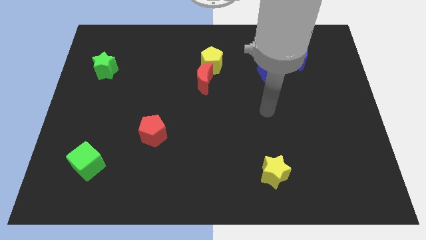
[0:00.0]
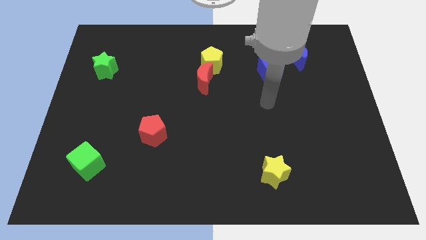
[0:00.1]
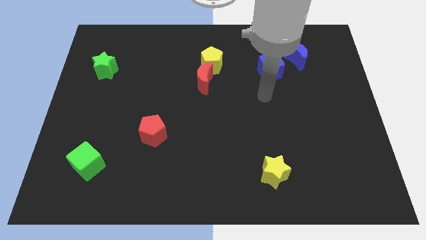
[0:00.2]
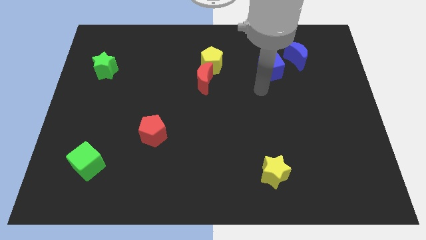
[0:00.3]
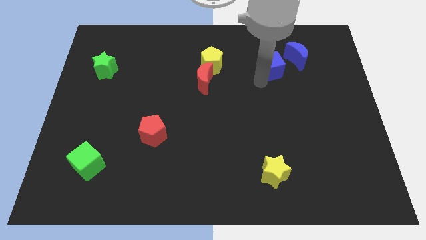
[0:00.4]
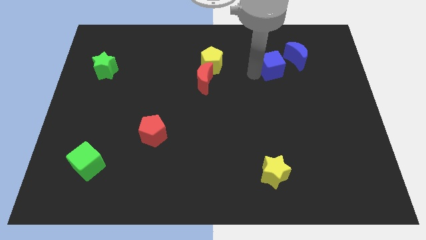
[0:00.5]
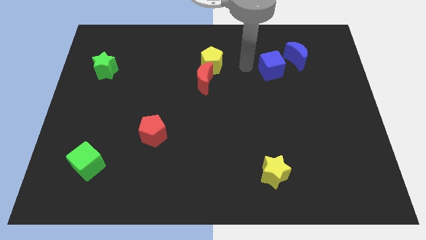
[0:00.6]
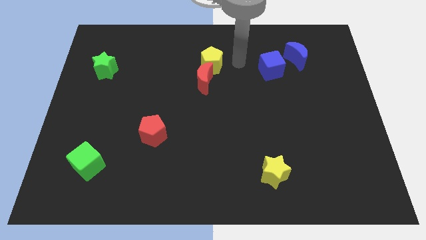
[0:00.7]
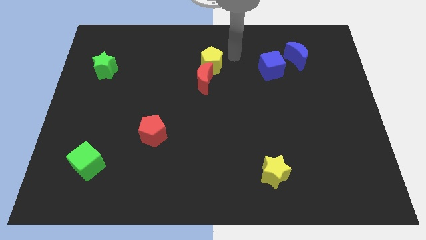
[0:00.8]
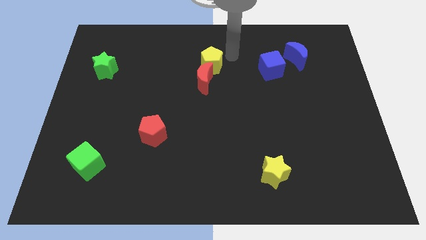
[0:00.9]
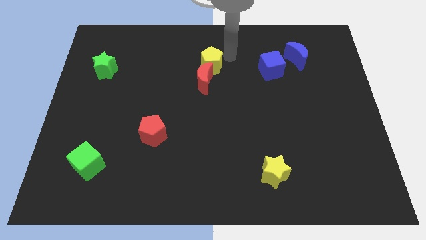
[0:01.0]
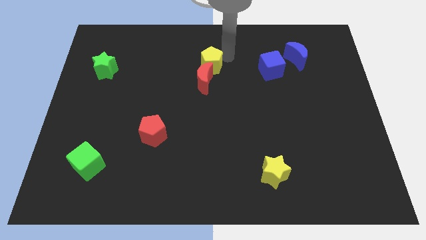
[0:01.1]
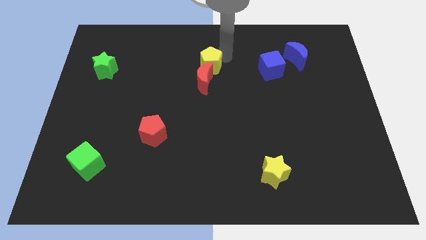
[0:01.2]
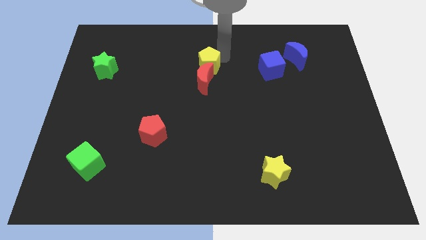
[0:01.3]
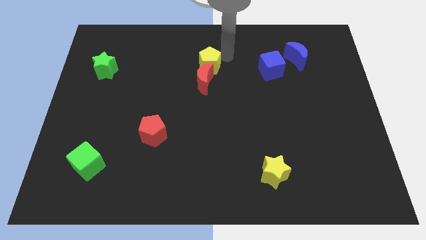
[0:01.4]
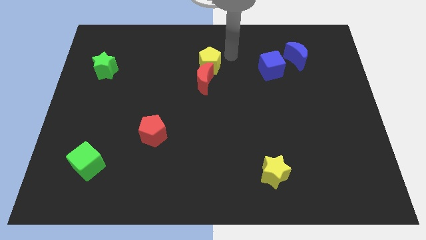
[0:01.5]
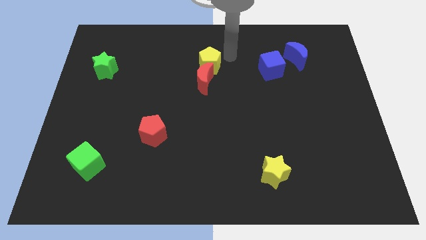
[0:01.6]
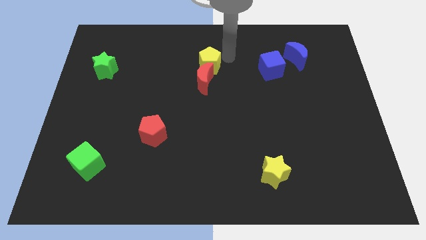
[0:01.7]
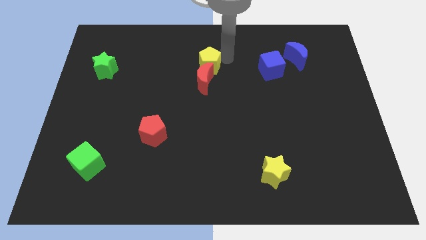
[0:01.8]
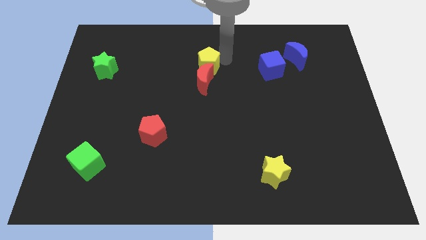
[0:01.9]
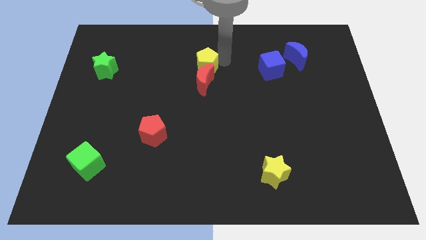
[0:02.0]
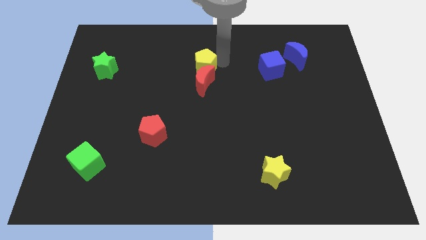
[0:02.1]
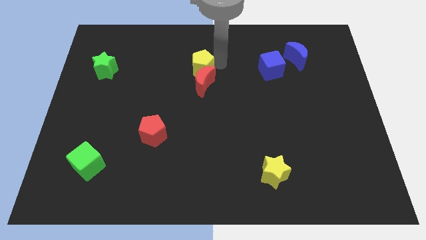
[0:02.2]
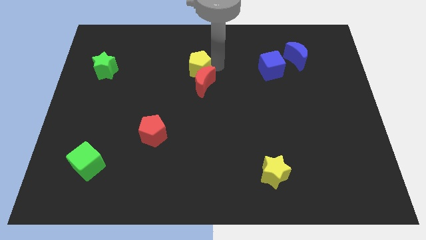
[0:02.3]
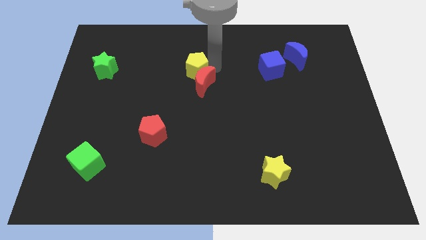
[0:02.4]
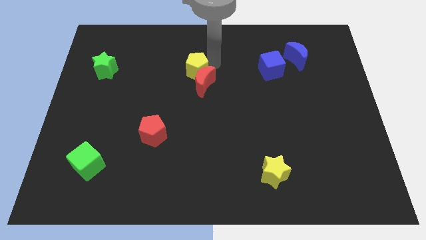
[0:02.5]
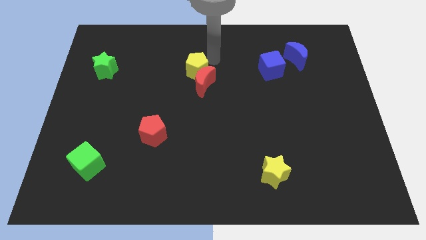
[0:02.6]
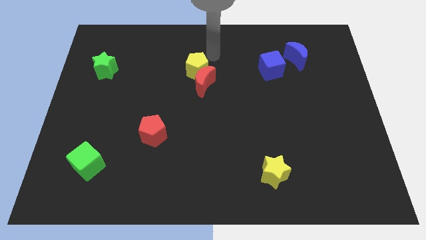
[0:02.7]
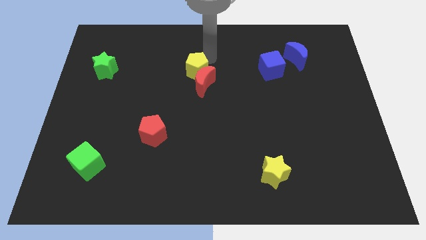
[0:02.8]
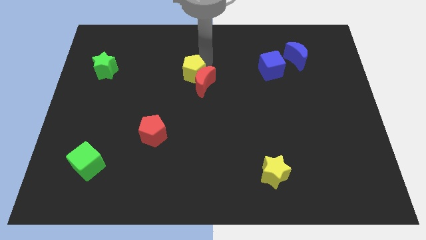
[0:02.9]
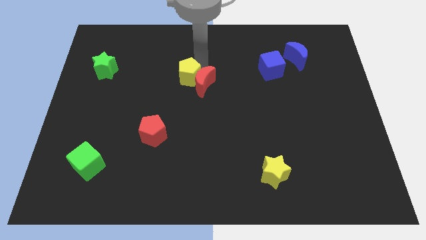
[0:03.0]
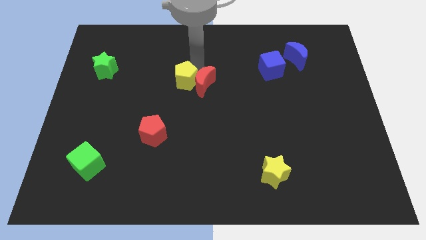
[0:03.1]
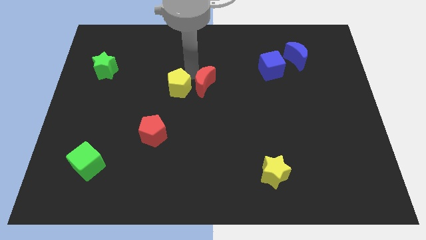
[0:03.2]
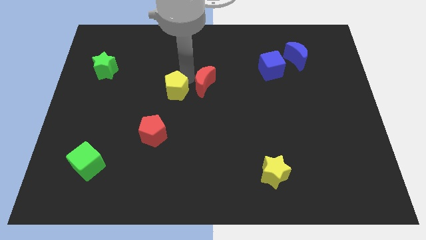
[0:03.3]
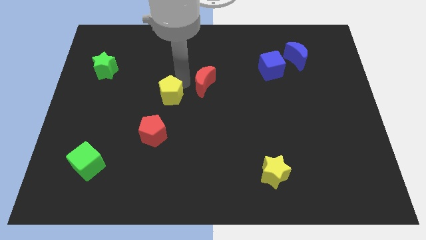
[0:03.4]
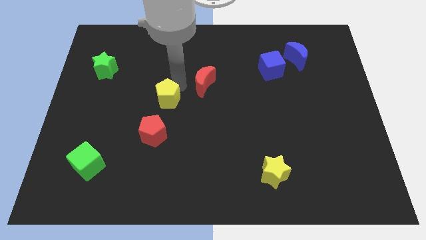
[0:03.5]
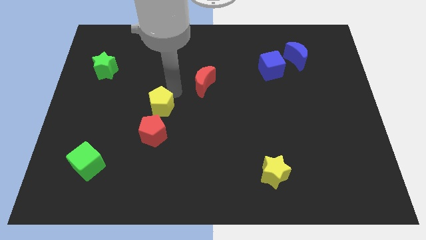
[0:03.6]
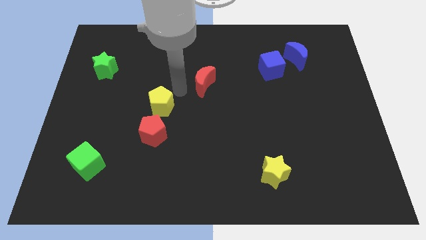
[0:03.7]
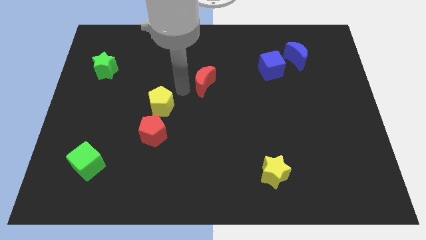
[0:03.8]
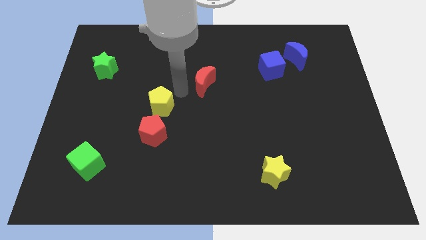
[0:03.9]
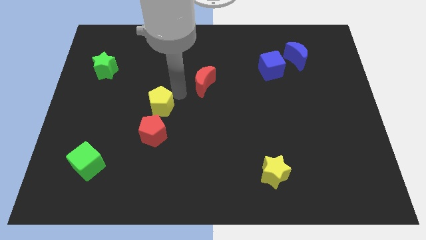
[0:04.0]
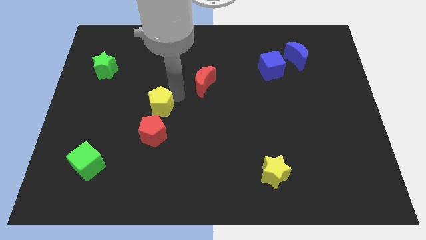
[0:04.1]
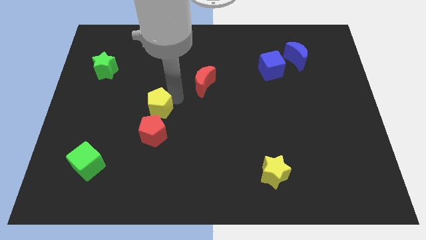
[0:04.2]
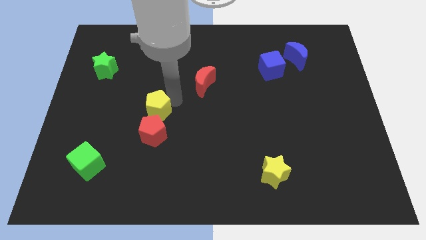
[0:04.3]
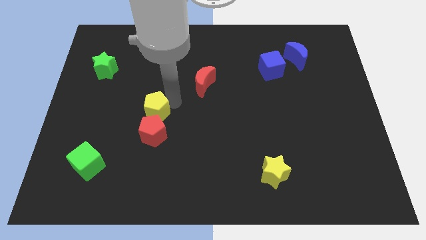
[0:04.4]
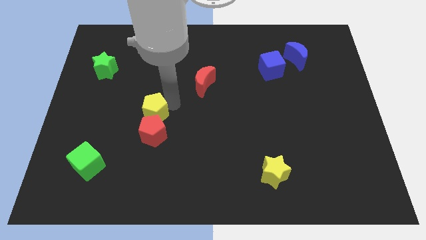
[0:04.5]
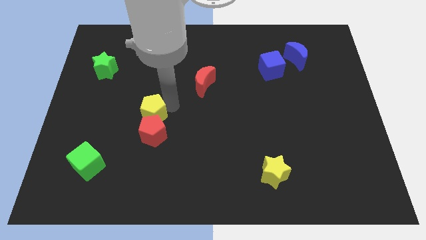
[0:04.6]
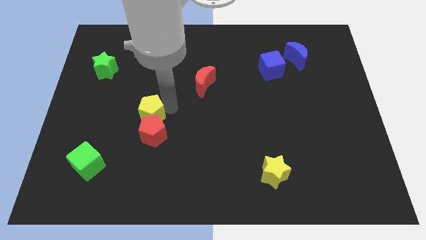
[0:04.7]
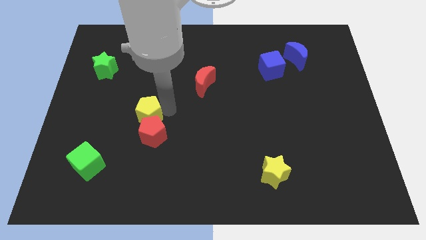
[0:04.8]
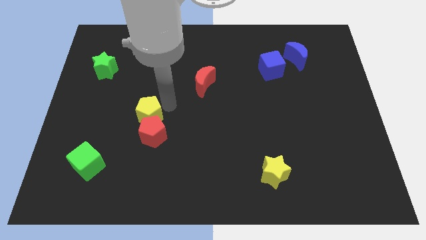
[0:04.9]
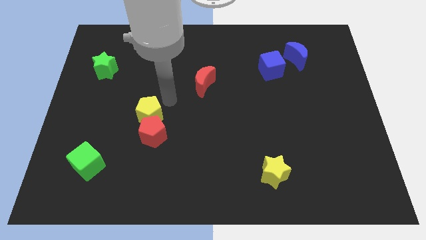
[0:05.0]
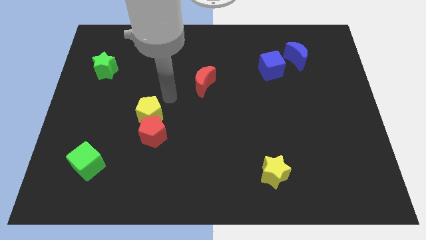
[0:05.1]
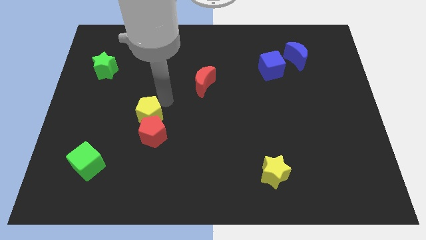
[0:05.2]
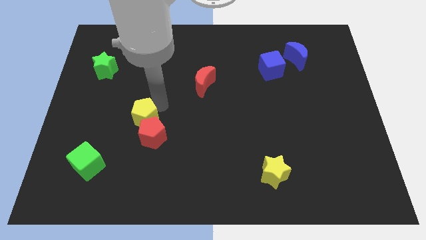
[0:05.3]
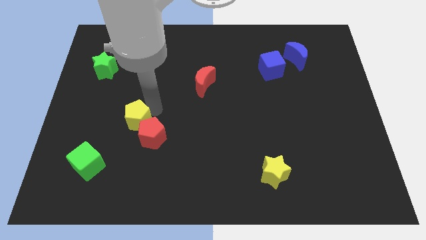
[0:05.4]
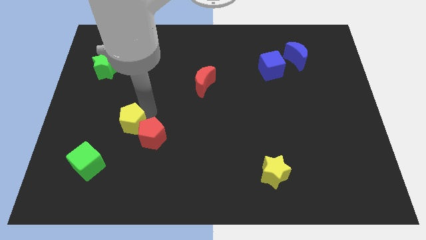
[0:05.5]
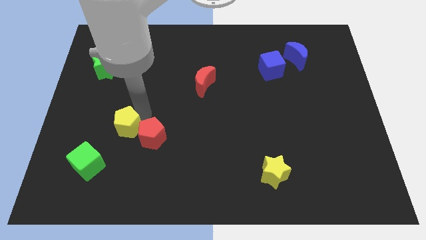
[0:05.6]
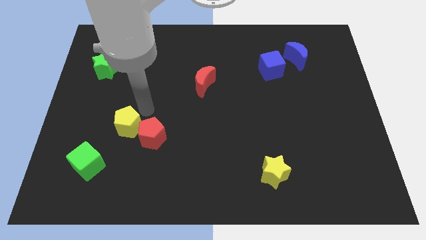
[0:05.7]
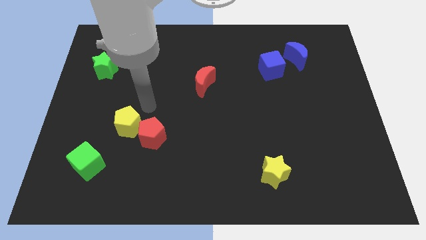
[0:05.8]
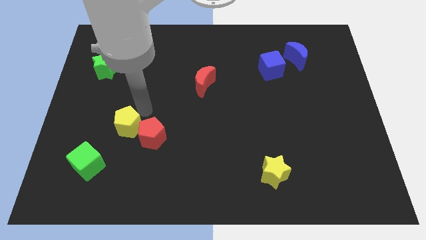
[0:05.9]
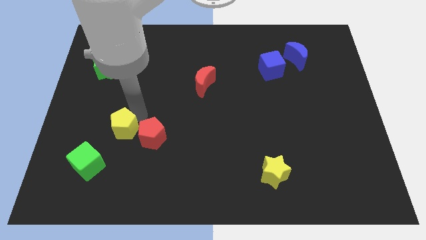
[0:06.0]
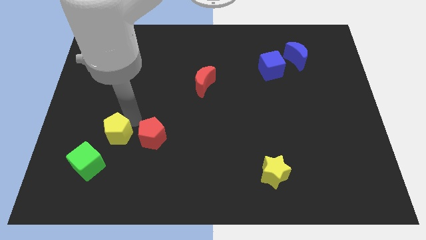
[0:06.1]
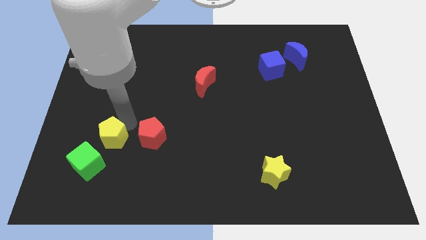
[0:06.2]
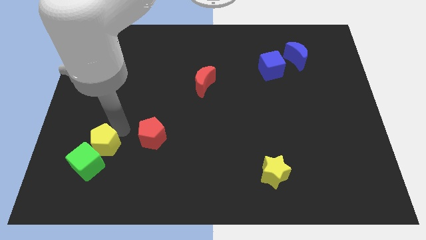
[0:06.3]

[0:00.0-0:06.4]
slide the yellow pentagon to the green cube
